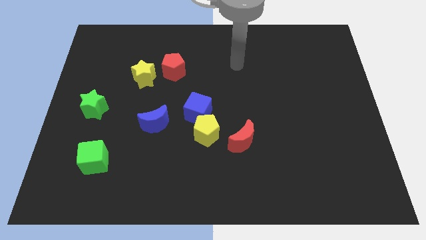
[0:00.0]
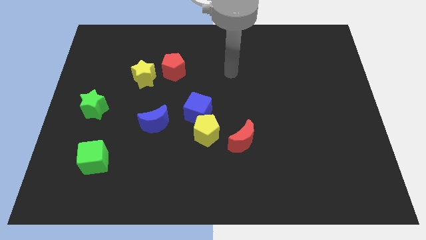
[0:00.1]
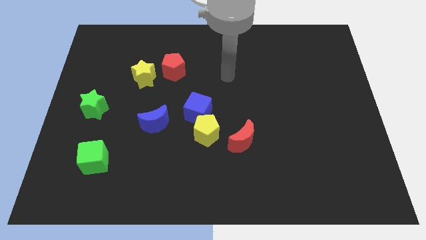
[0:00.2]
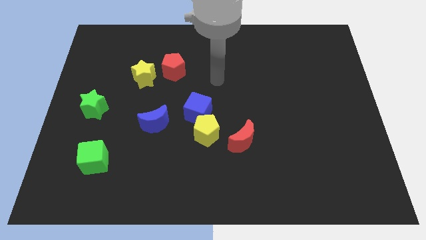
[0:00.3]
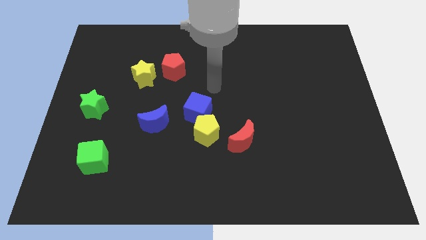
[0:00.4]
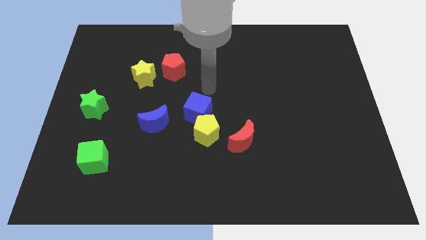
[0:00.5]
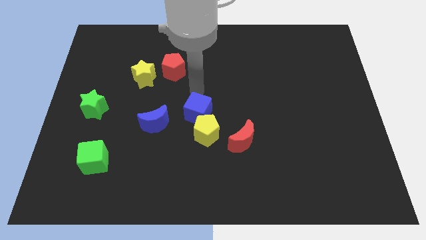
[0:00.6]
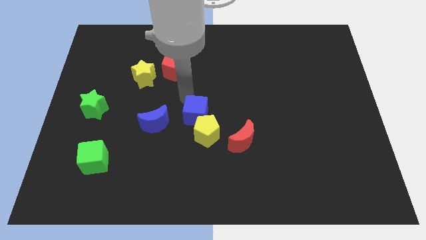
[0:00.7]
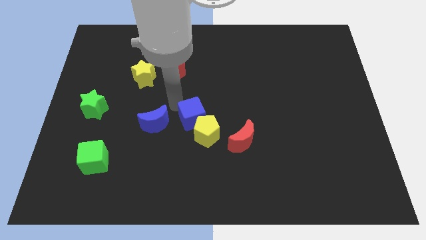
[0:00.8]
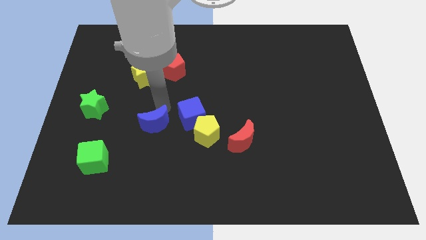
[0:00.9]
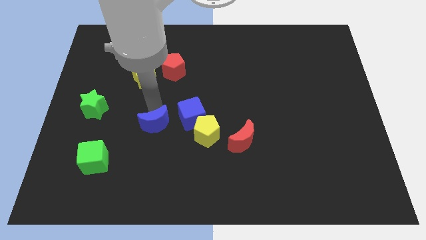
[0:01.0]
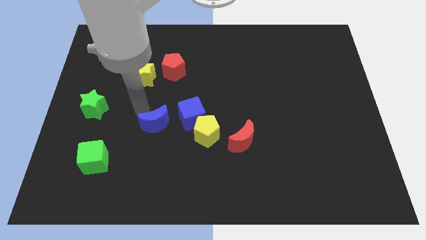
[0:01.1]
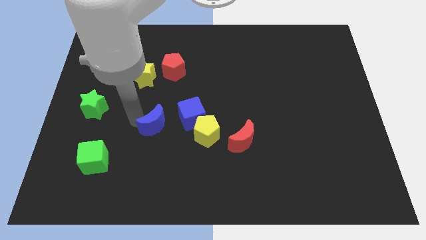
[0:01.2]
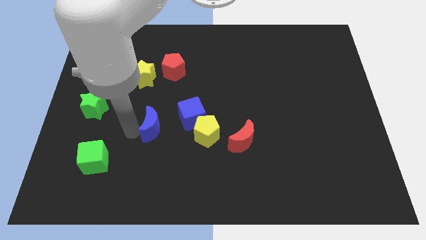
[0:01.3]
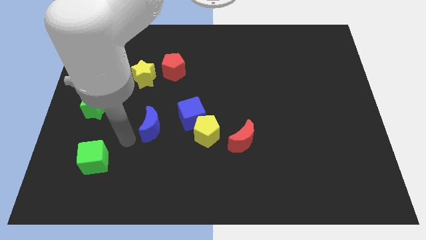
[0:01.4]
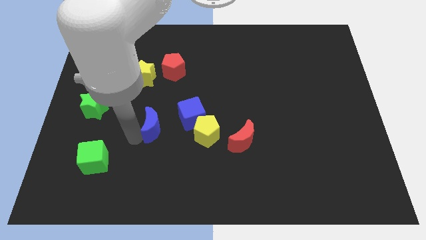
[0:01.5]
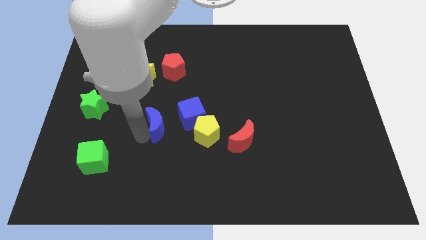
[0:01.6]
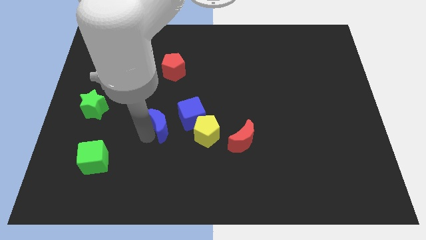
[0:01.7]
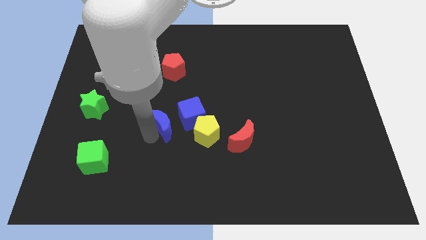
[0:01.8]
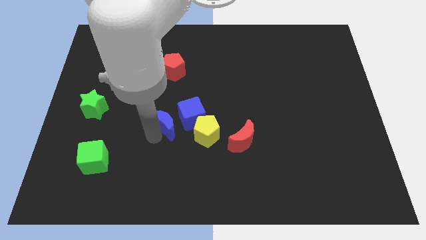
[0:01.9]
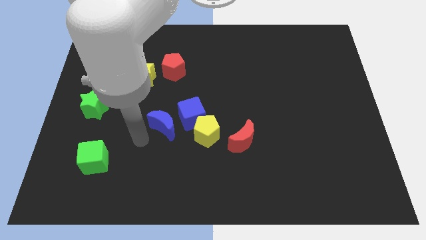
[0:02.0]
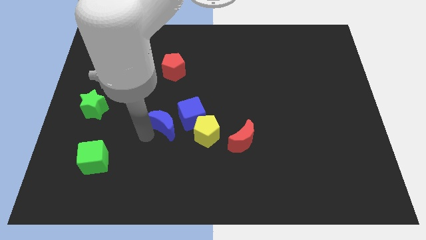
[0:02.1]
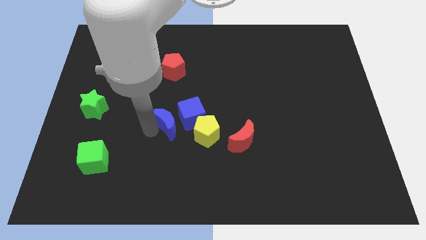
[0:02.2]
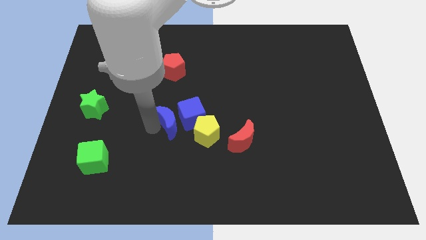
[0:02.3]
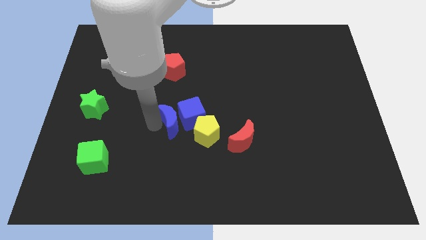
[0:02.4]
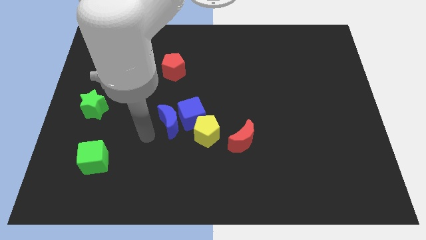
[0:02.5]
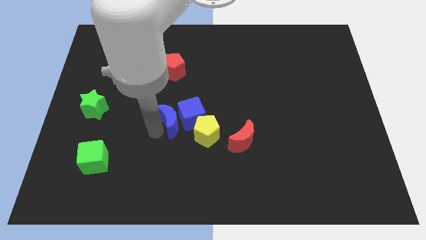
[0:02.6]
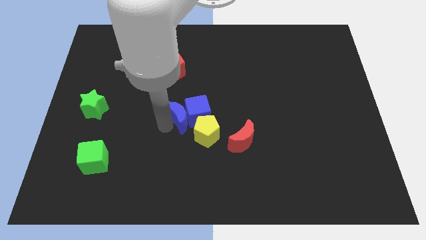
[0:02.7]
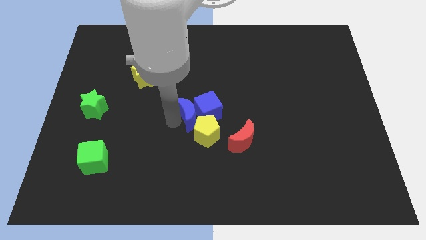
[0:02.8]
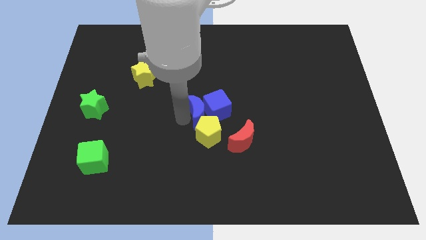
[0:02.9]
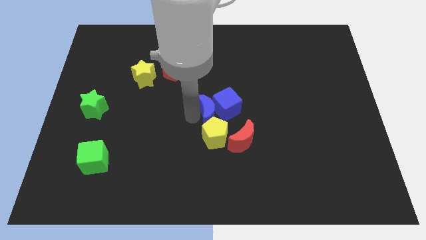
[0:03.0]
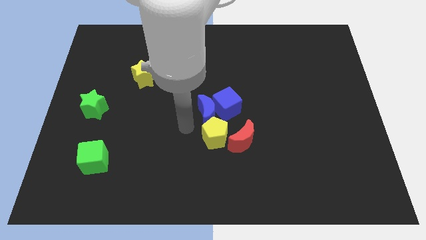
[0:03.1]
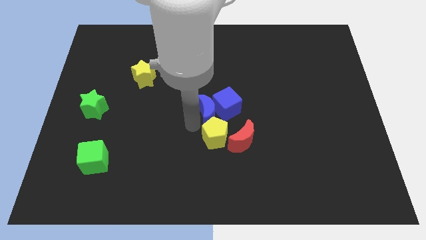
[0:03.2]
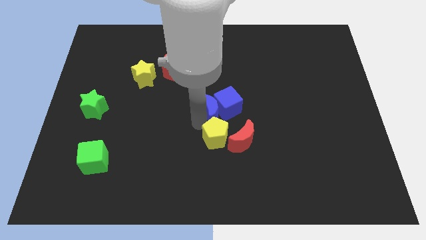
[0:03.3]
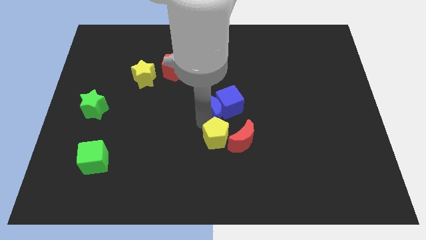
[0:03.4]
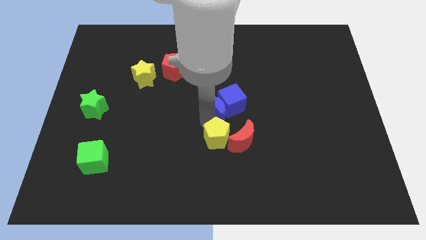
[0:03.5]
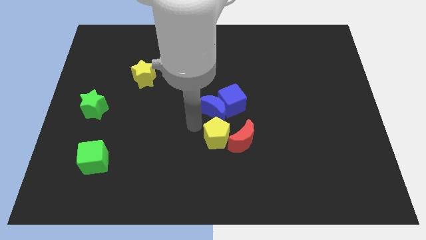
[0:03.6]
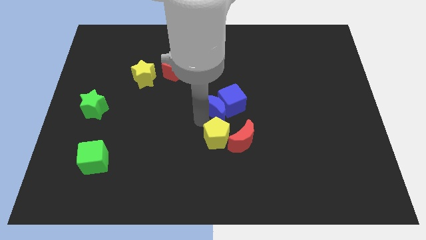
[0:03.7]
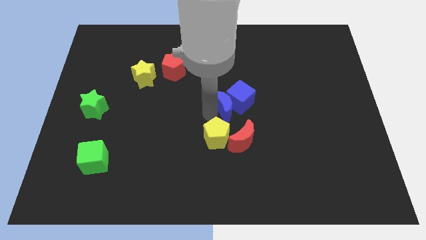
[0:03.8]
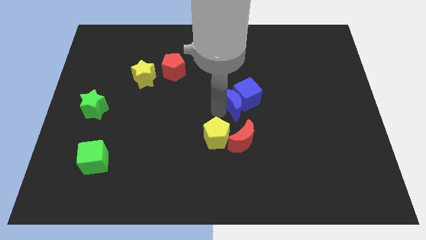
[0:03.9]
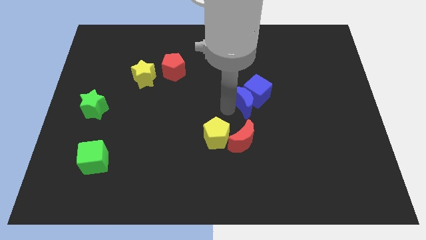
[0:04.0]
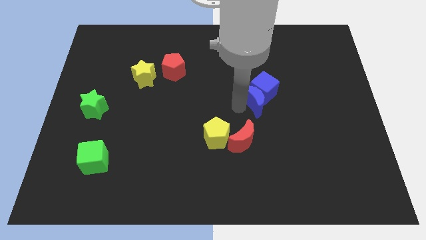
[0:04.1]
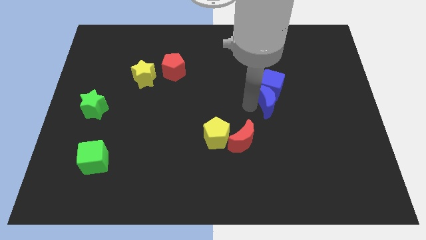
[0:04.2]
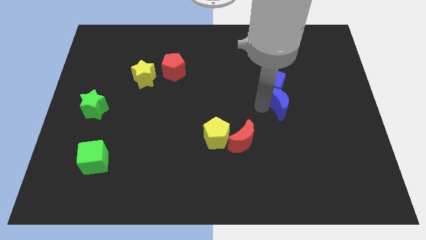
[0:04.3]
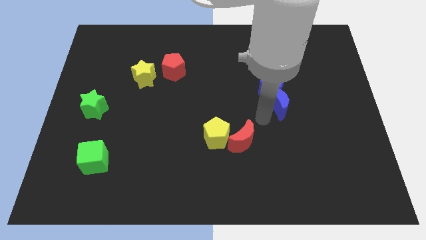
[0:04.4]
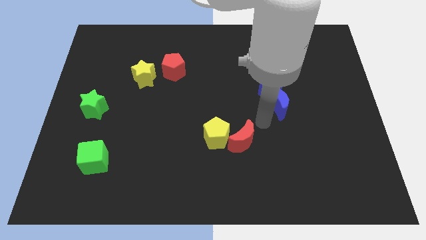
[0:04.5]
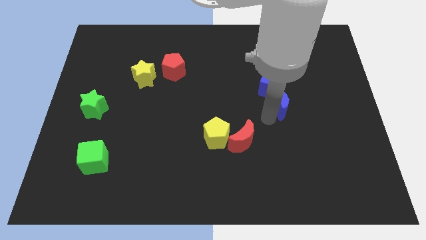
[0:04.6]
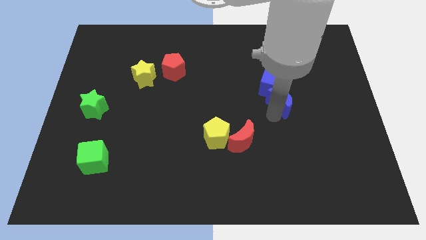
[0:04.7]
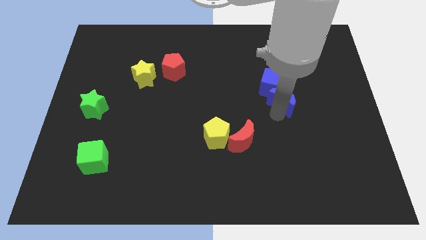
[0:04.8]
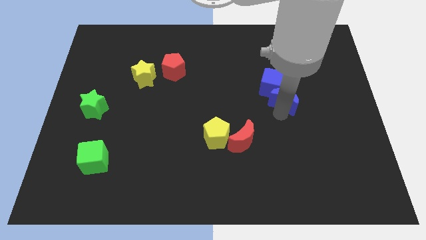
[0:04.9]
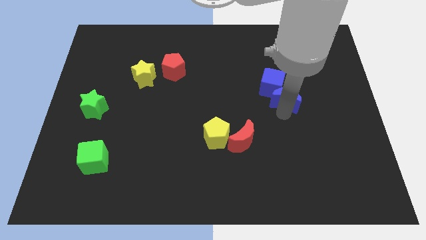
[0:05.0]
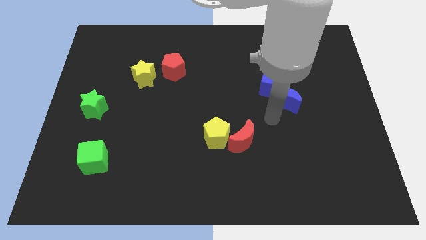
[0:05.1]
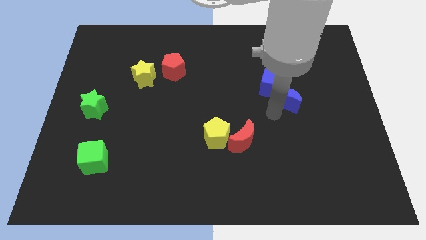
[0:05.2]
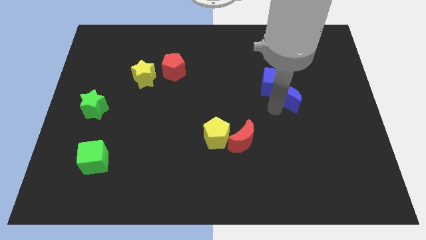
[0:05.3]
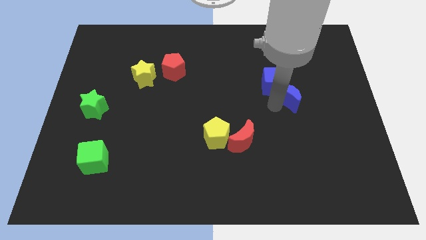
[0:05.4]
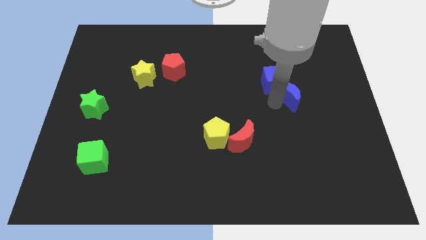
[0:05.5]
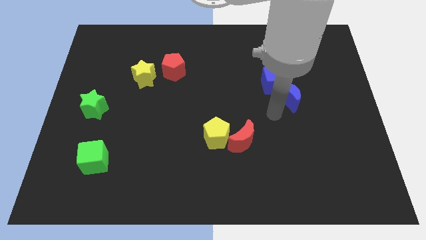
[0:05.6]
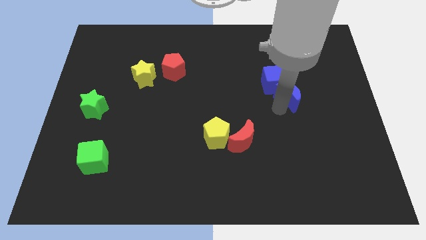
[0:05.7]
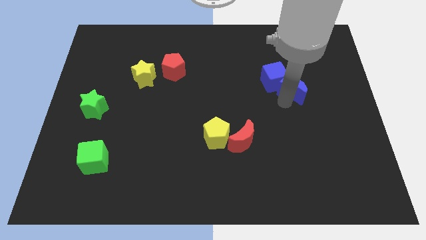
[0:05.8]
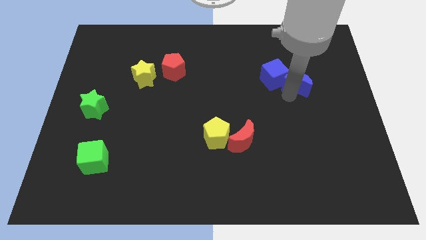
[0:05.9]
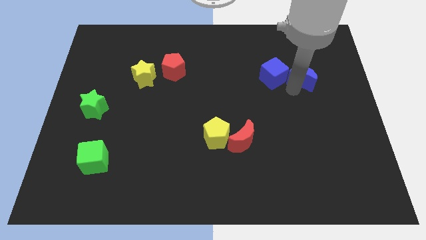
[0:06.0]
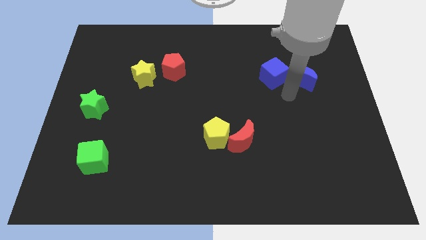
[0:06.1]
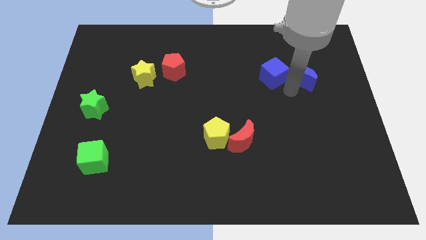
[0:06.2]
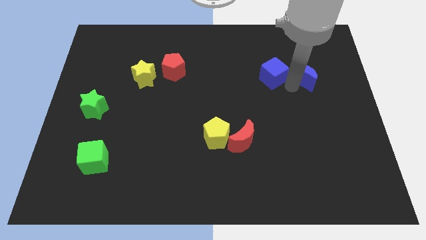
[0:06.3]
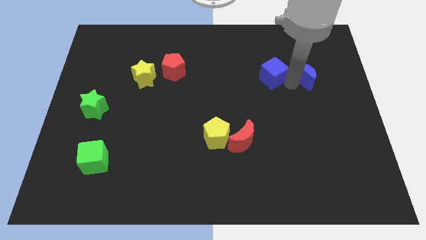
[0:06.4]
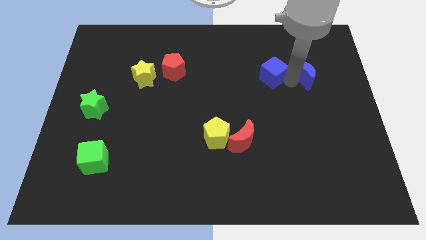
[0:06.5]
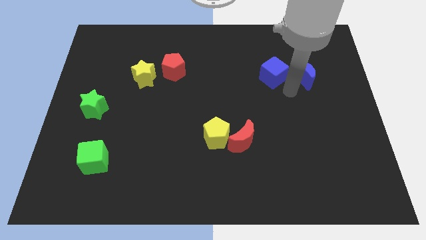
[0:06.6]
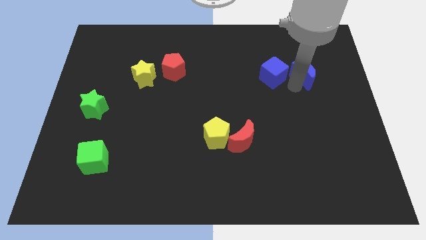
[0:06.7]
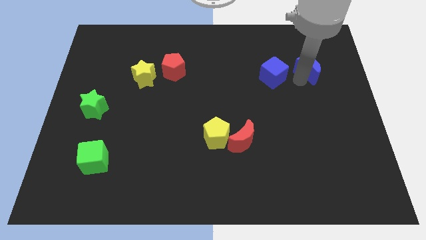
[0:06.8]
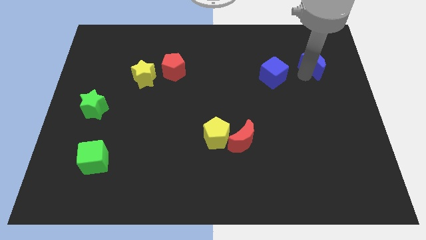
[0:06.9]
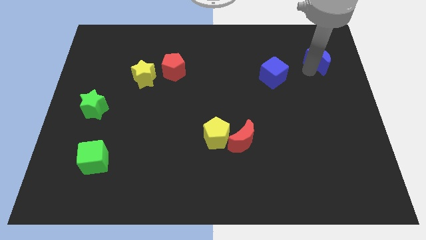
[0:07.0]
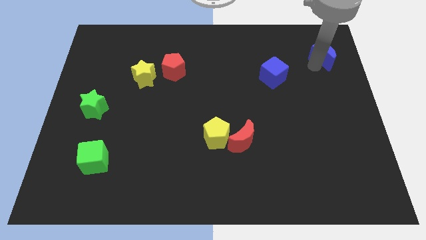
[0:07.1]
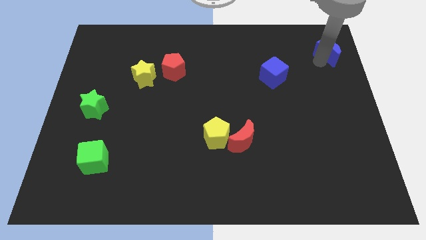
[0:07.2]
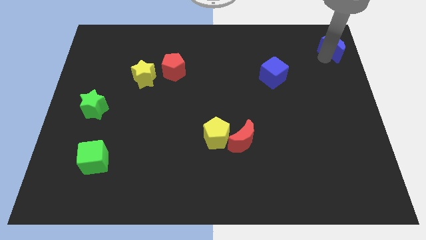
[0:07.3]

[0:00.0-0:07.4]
put the blue moon to the top right
